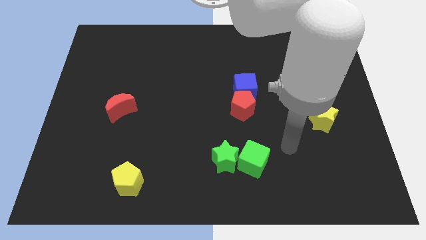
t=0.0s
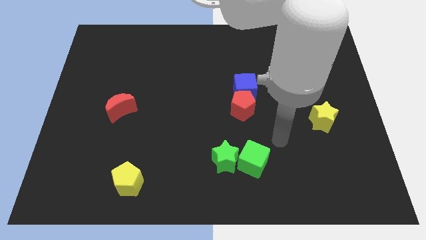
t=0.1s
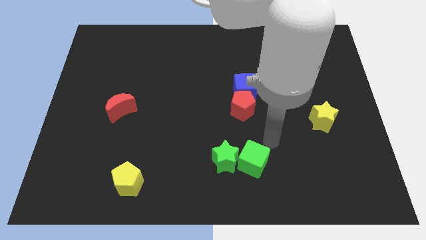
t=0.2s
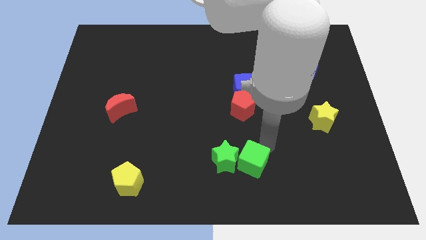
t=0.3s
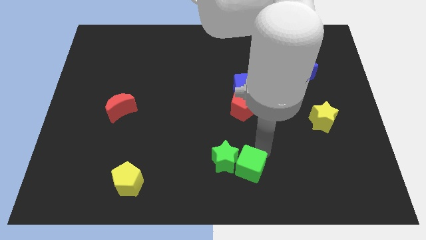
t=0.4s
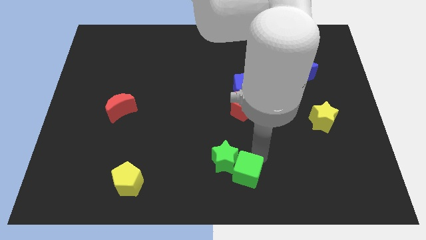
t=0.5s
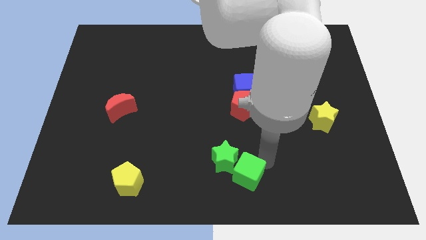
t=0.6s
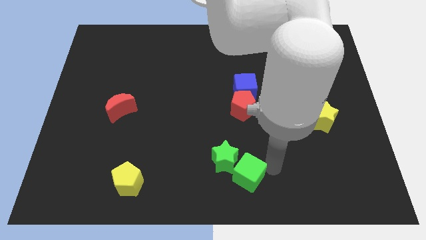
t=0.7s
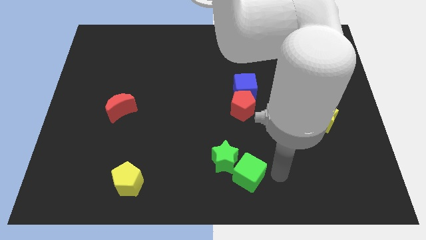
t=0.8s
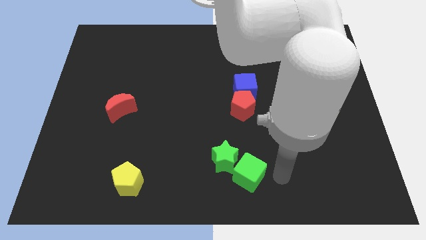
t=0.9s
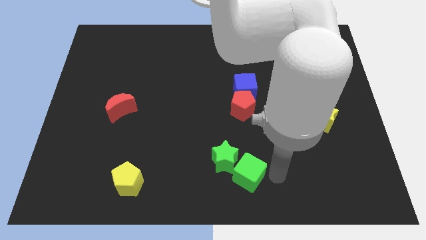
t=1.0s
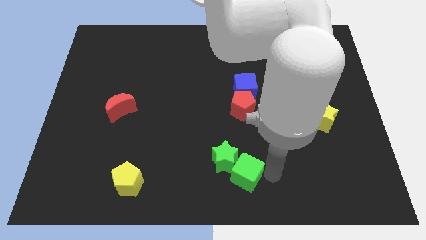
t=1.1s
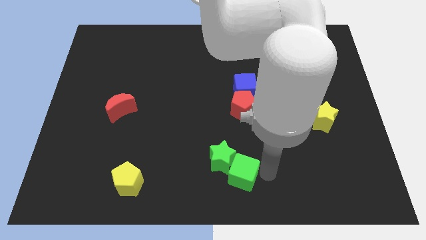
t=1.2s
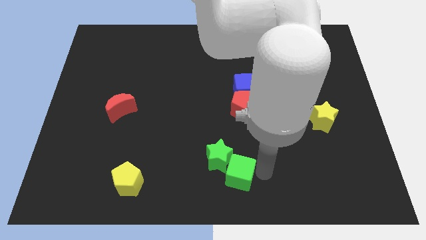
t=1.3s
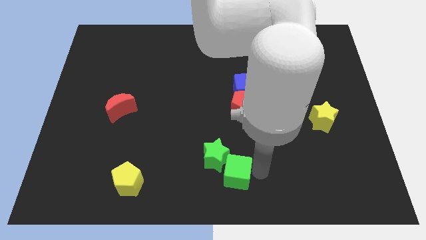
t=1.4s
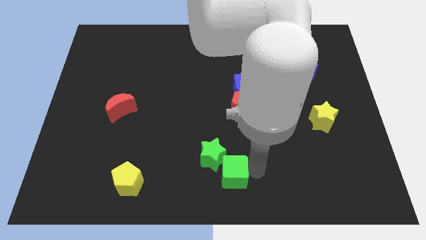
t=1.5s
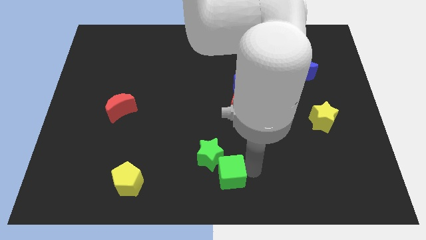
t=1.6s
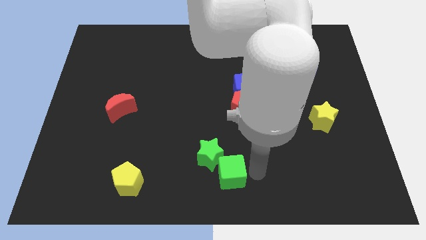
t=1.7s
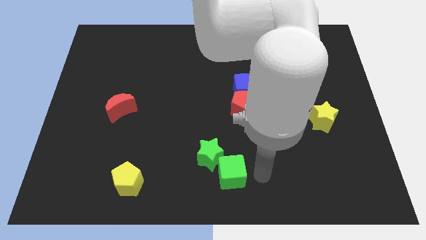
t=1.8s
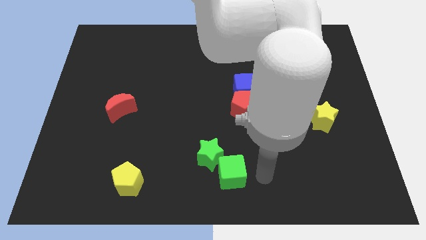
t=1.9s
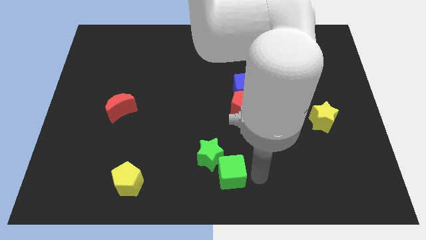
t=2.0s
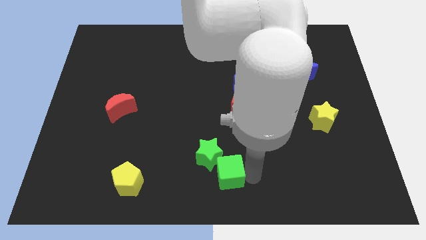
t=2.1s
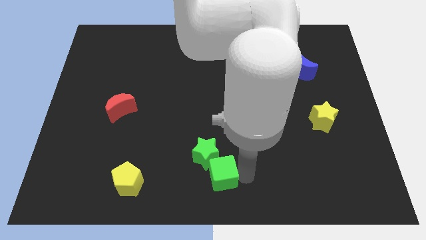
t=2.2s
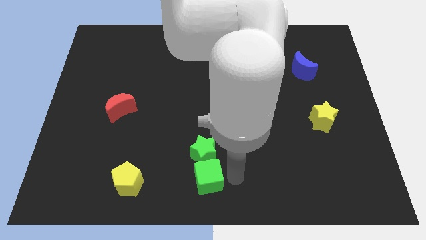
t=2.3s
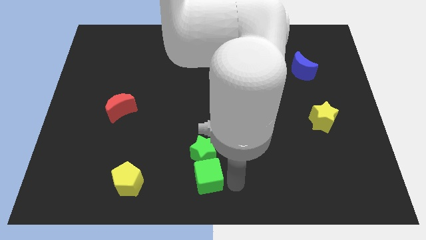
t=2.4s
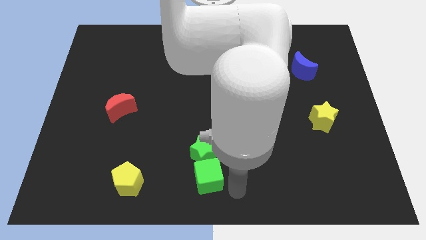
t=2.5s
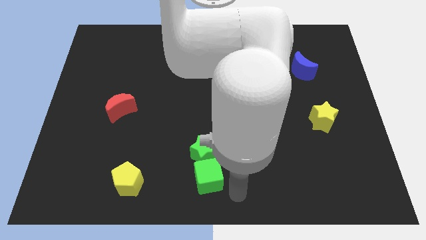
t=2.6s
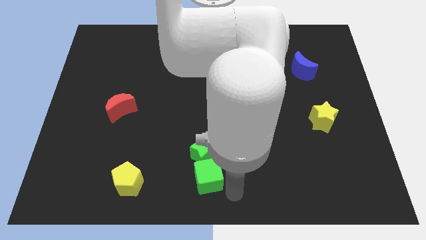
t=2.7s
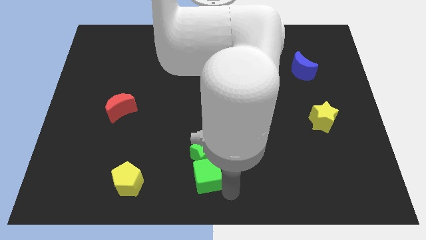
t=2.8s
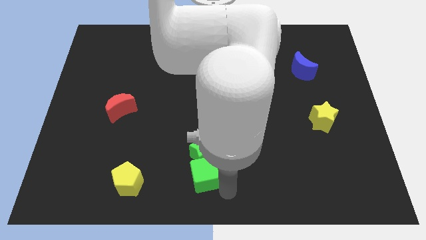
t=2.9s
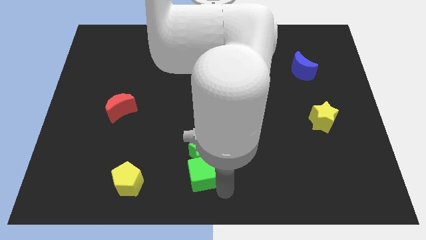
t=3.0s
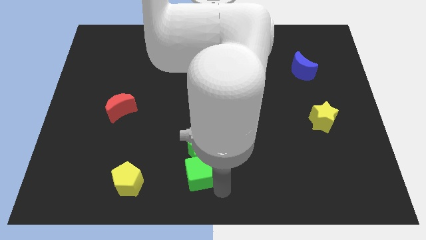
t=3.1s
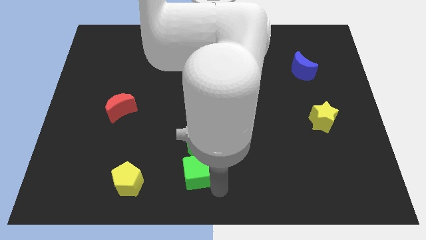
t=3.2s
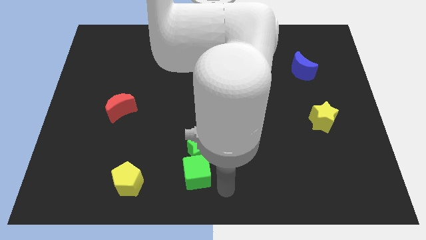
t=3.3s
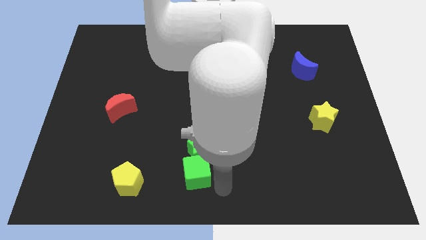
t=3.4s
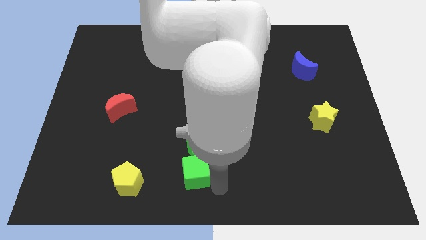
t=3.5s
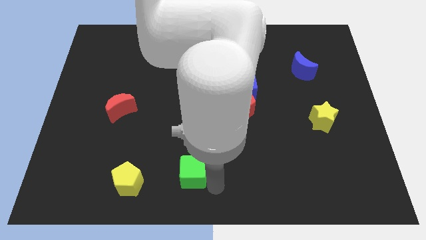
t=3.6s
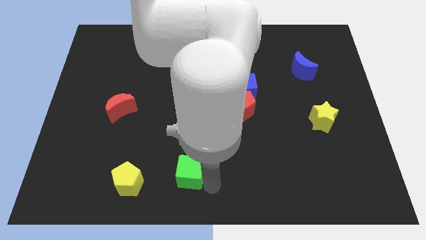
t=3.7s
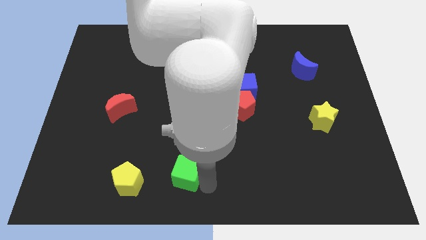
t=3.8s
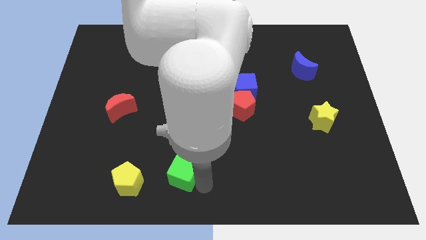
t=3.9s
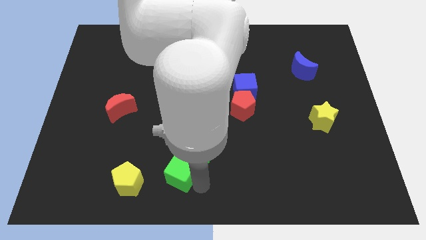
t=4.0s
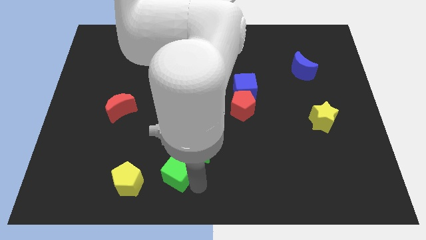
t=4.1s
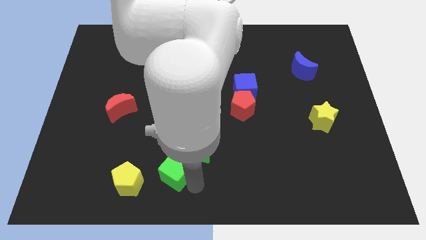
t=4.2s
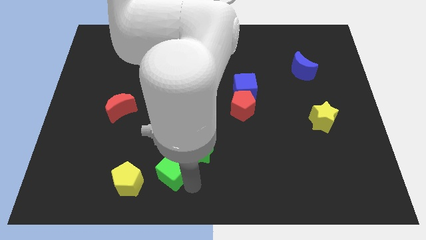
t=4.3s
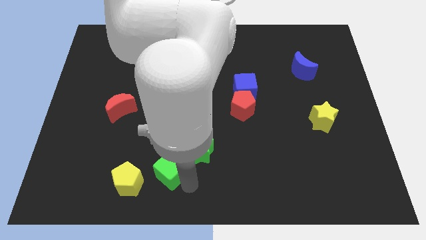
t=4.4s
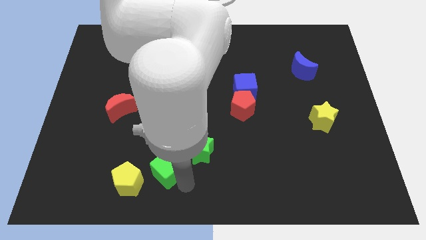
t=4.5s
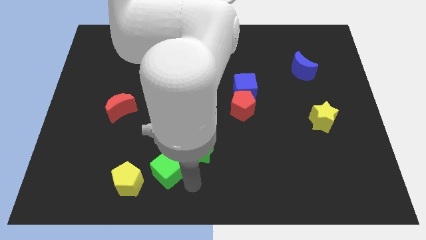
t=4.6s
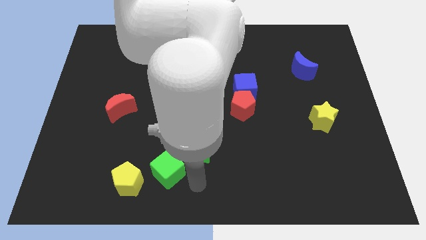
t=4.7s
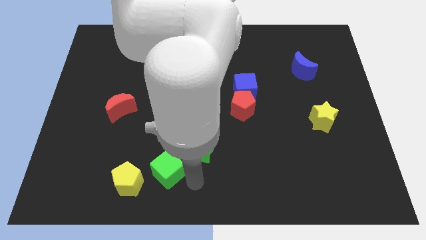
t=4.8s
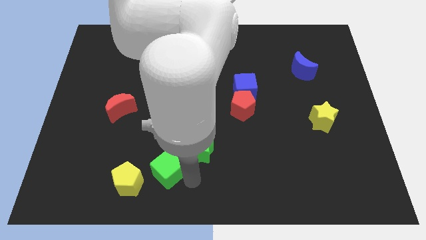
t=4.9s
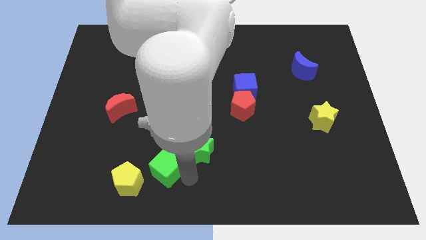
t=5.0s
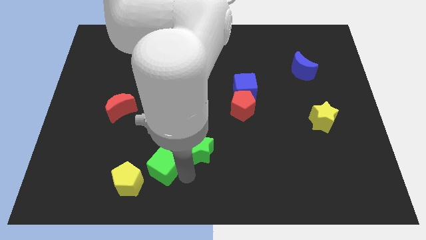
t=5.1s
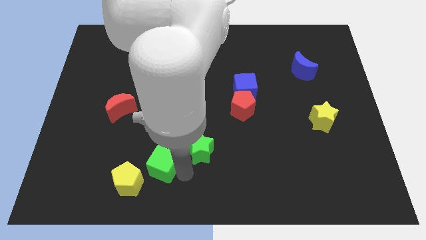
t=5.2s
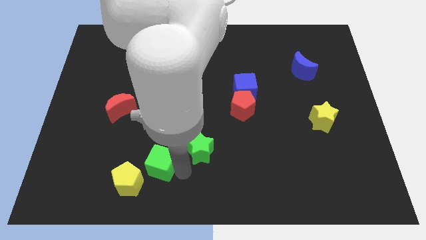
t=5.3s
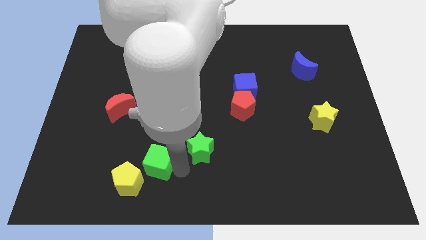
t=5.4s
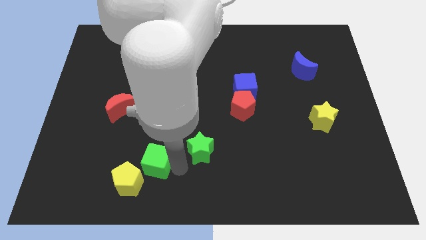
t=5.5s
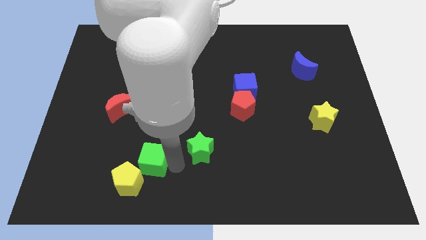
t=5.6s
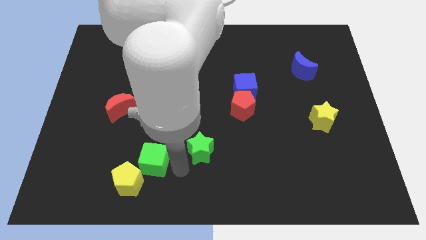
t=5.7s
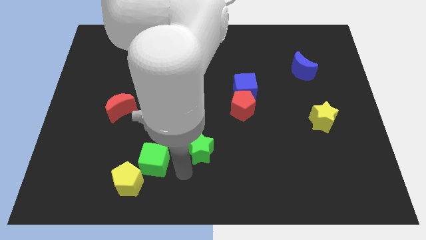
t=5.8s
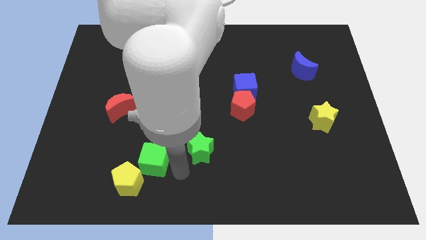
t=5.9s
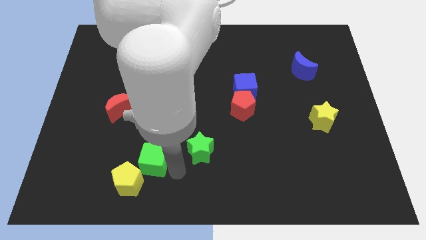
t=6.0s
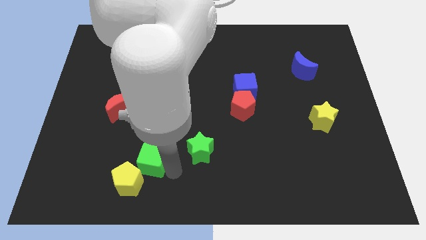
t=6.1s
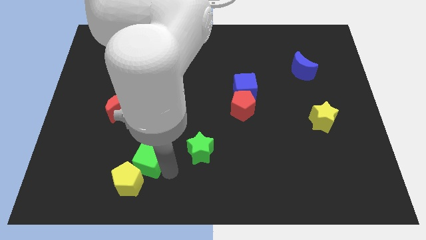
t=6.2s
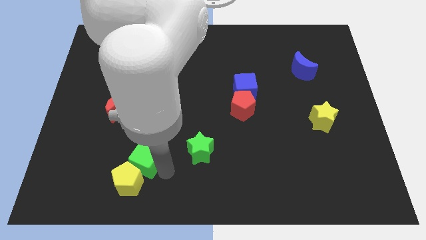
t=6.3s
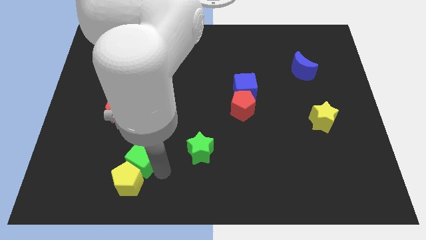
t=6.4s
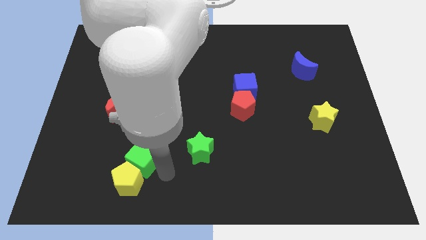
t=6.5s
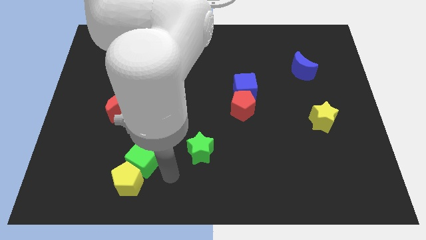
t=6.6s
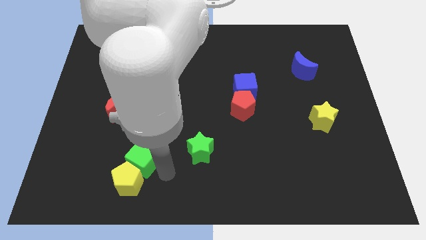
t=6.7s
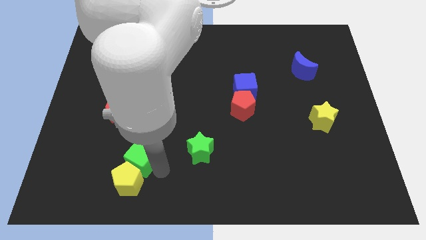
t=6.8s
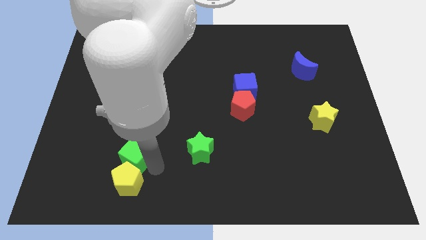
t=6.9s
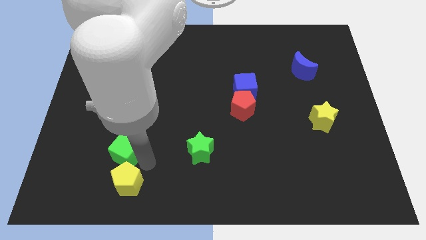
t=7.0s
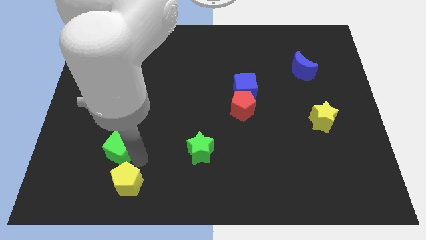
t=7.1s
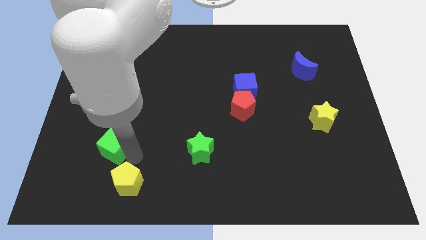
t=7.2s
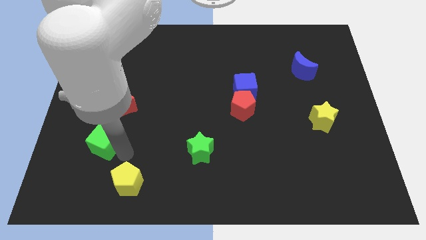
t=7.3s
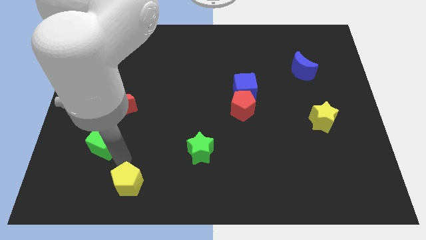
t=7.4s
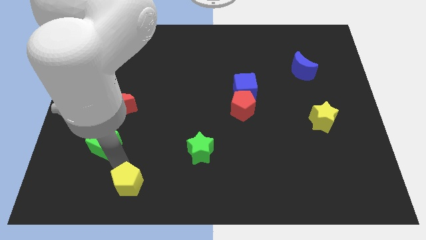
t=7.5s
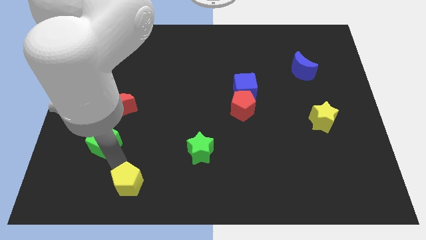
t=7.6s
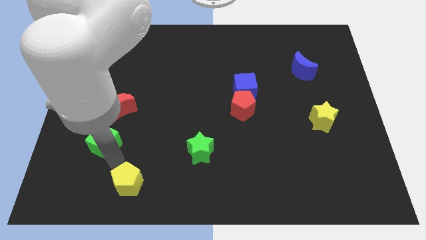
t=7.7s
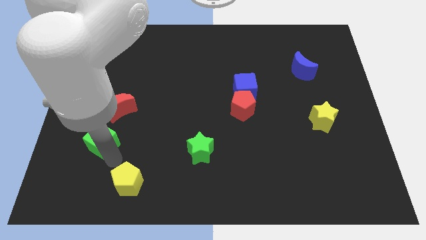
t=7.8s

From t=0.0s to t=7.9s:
push the green cube to the bottom left side of the red moon
